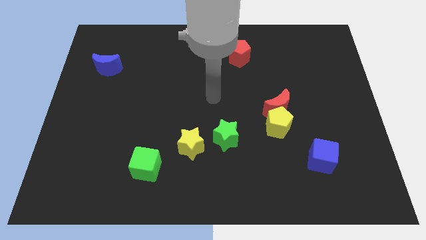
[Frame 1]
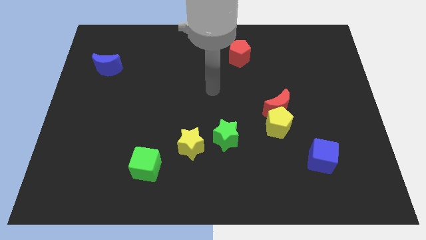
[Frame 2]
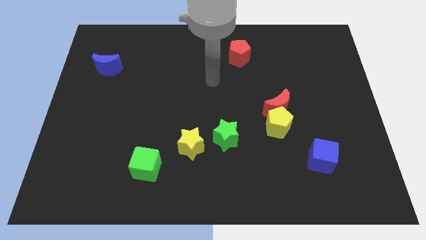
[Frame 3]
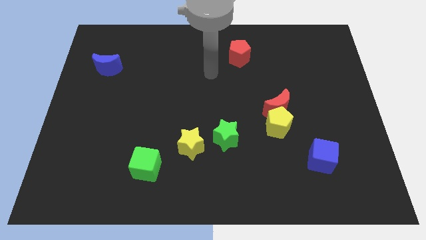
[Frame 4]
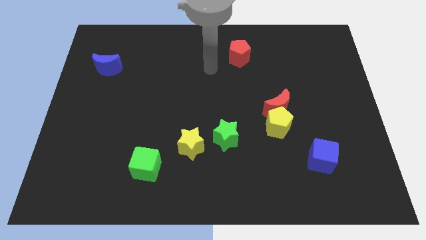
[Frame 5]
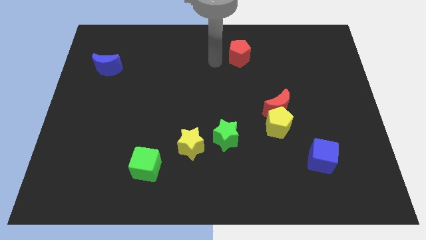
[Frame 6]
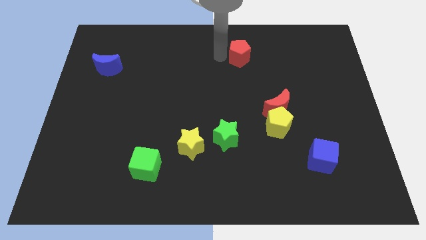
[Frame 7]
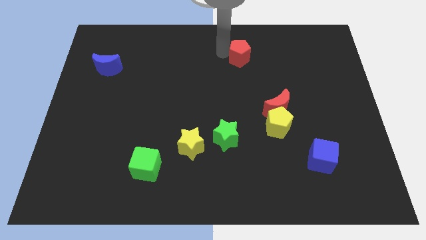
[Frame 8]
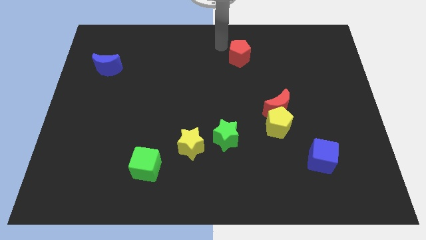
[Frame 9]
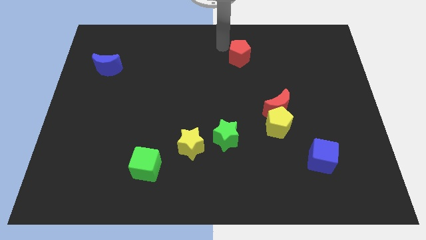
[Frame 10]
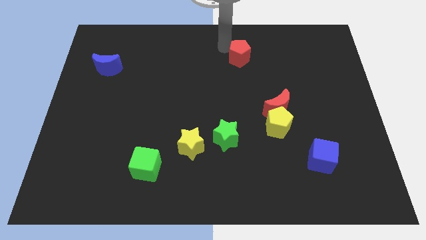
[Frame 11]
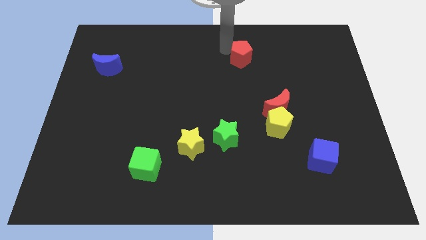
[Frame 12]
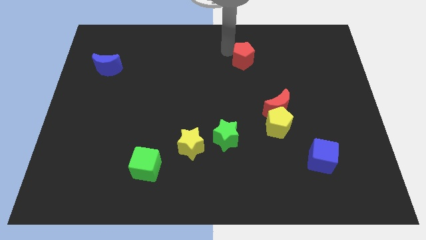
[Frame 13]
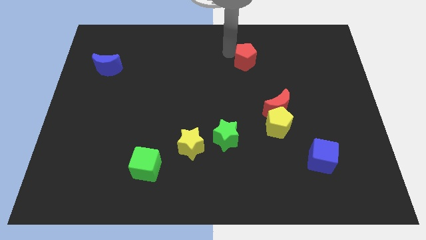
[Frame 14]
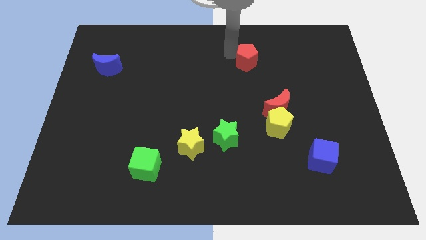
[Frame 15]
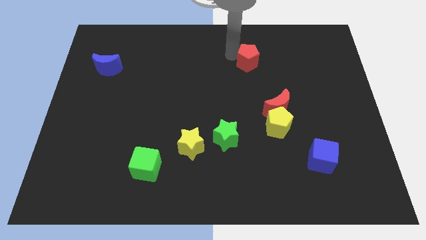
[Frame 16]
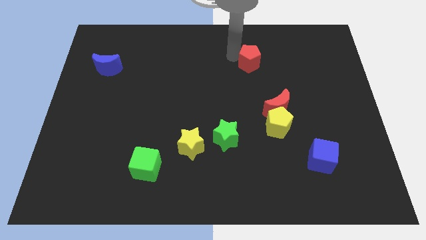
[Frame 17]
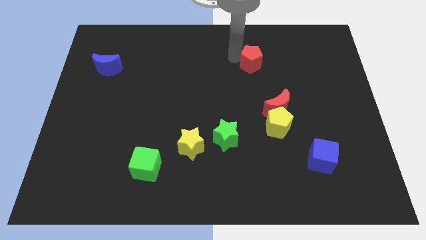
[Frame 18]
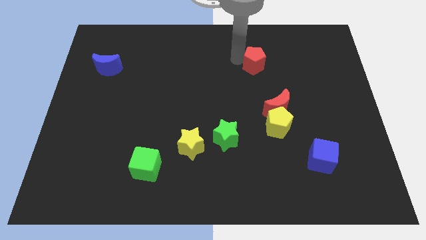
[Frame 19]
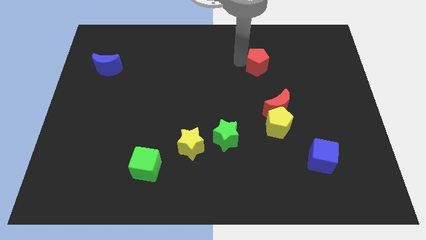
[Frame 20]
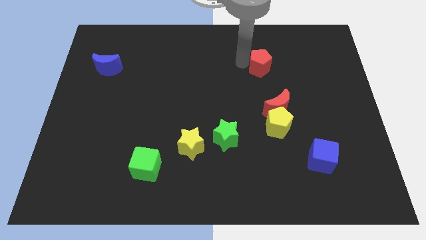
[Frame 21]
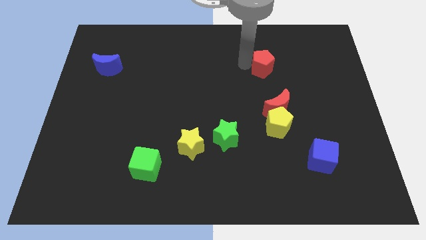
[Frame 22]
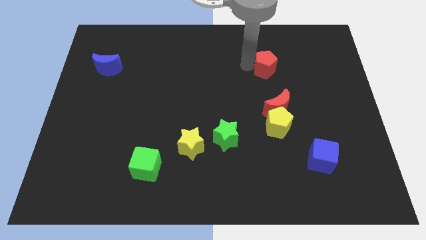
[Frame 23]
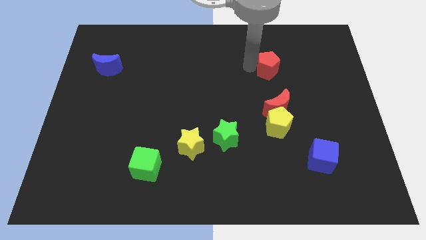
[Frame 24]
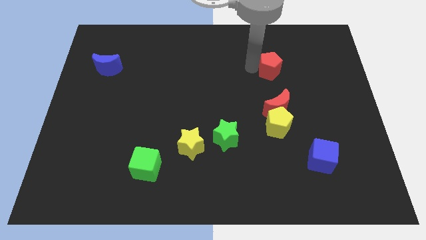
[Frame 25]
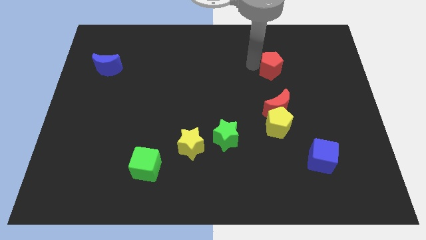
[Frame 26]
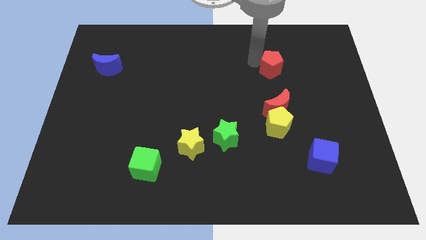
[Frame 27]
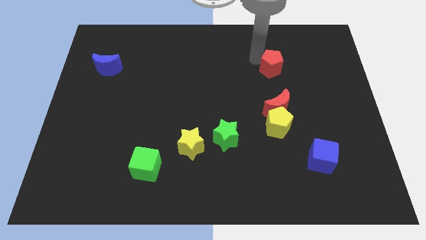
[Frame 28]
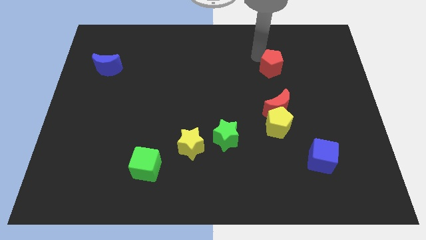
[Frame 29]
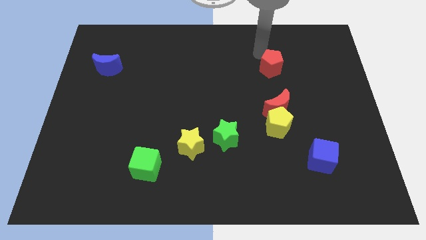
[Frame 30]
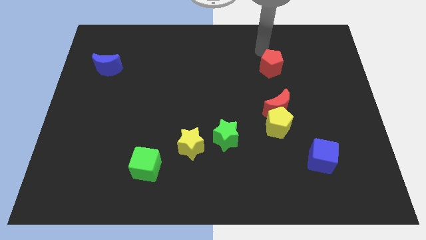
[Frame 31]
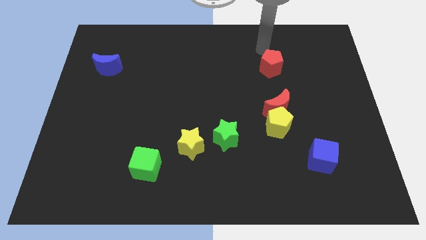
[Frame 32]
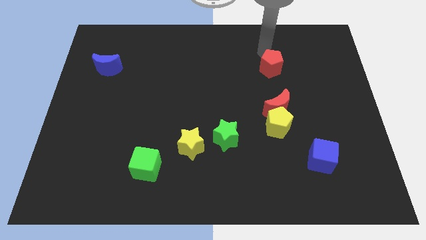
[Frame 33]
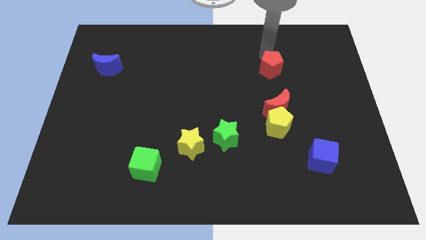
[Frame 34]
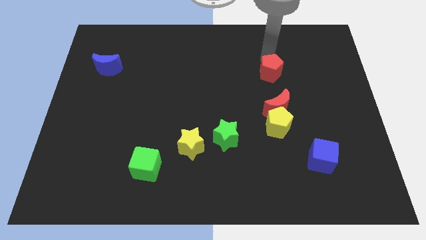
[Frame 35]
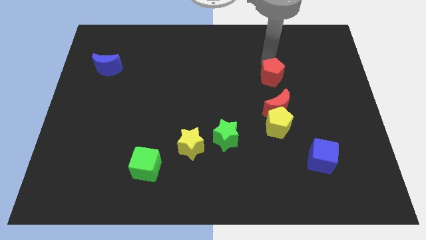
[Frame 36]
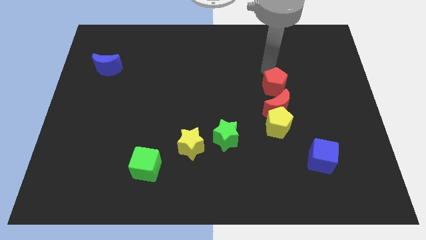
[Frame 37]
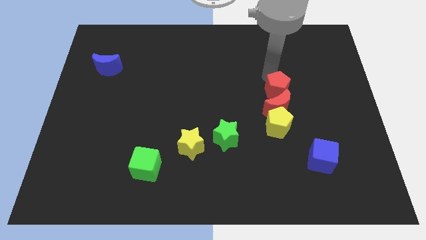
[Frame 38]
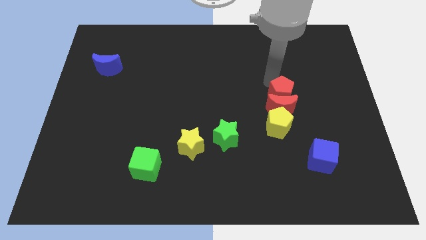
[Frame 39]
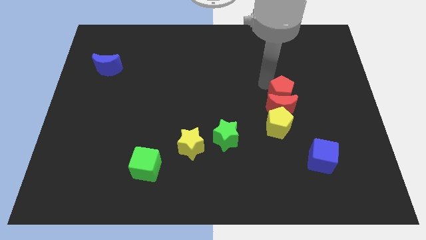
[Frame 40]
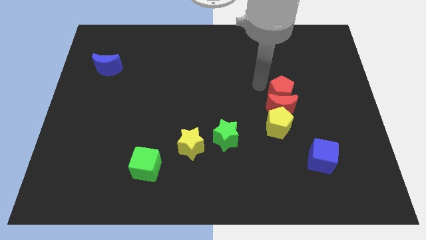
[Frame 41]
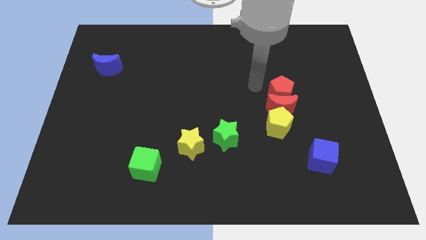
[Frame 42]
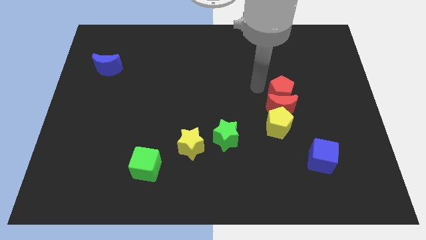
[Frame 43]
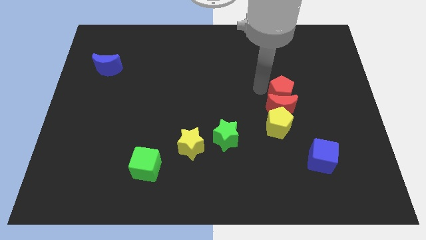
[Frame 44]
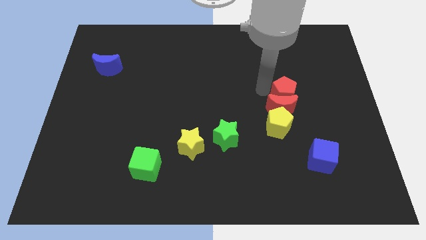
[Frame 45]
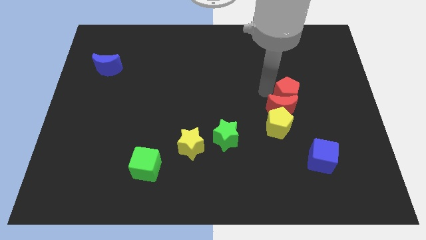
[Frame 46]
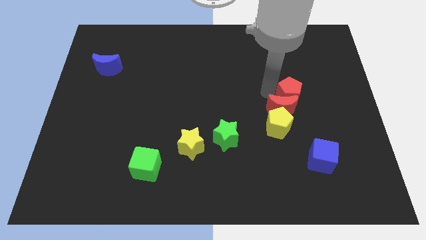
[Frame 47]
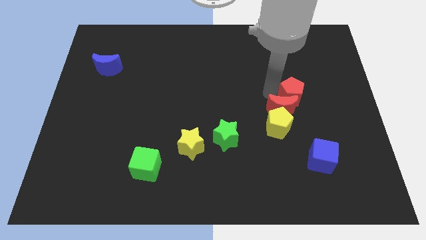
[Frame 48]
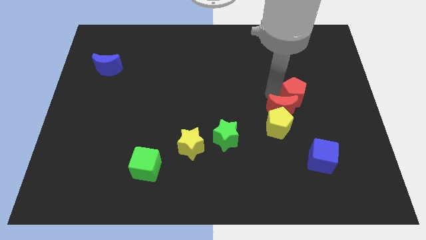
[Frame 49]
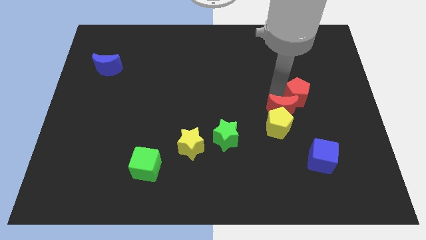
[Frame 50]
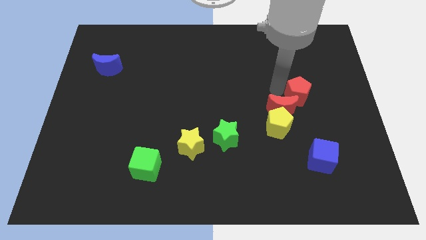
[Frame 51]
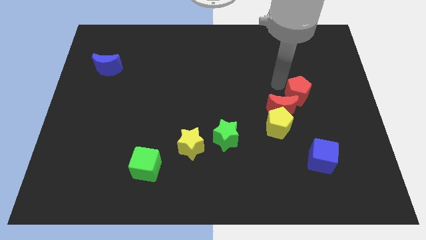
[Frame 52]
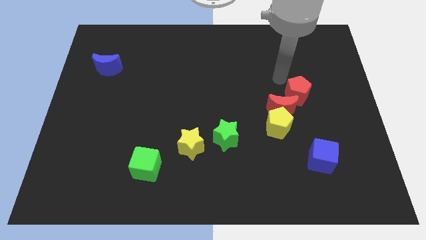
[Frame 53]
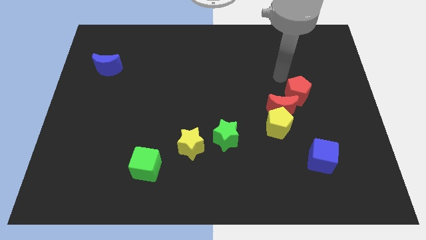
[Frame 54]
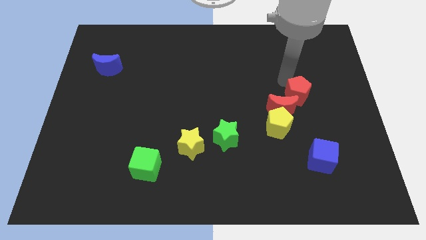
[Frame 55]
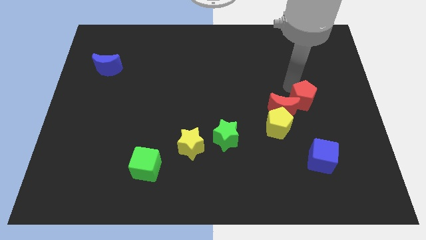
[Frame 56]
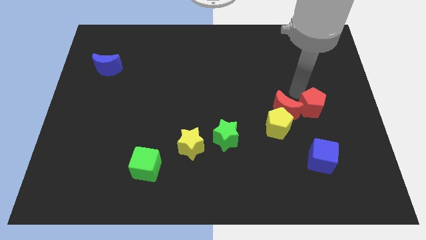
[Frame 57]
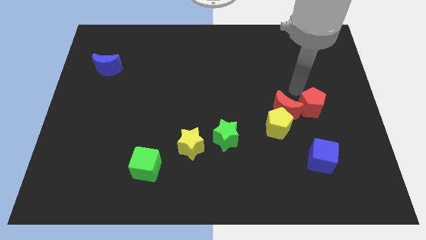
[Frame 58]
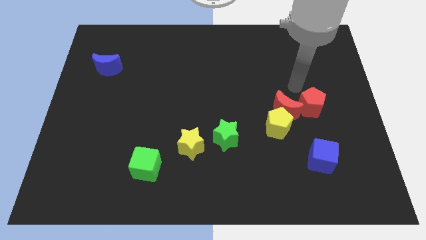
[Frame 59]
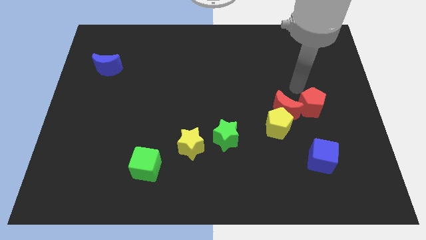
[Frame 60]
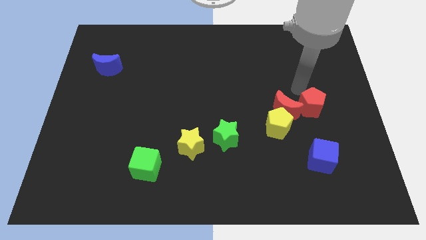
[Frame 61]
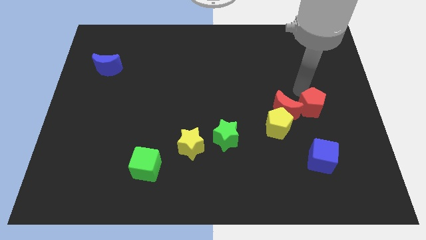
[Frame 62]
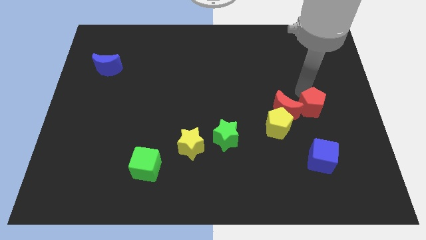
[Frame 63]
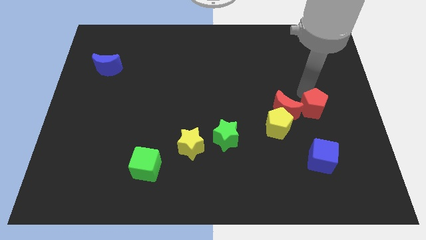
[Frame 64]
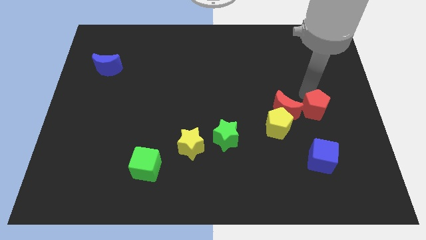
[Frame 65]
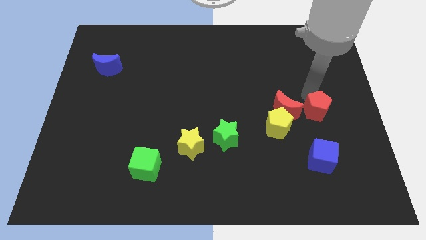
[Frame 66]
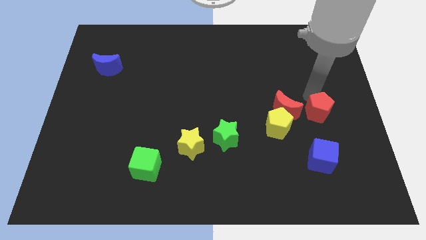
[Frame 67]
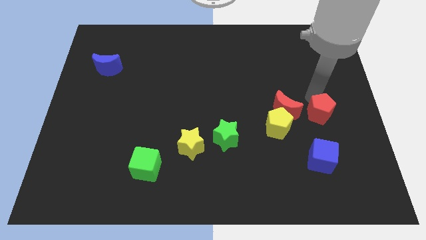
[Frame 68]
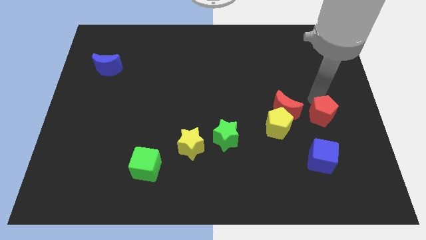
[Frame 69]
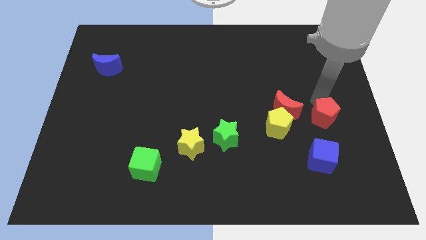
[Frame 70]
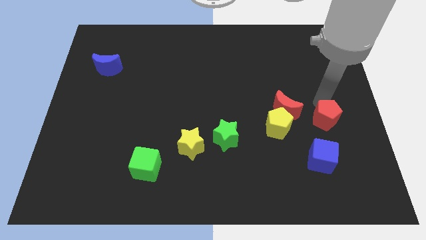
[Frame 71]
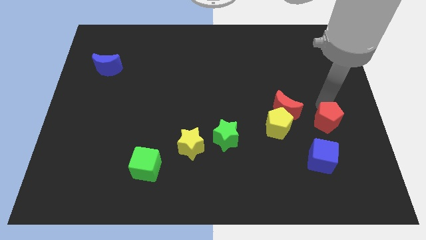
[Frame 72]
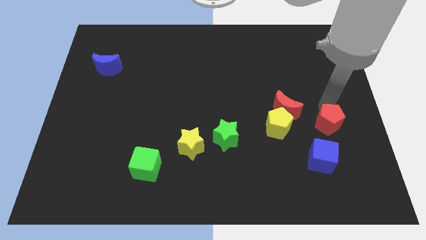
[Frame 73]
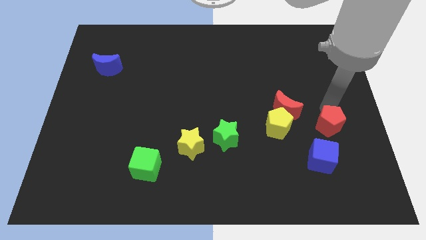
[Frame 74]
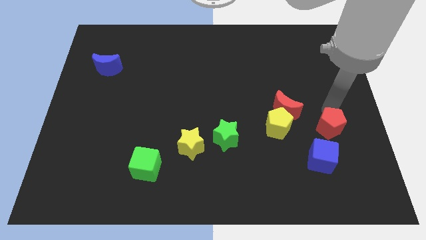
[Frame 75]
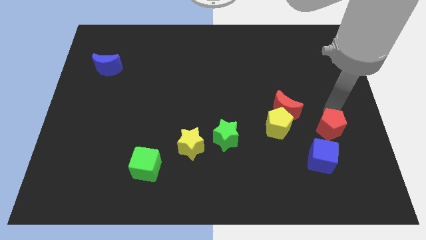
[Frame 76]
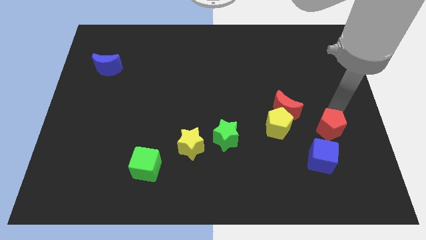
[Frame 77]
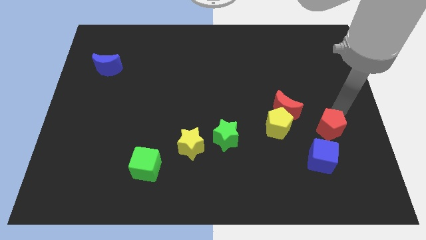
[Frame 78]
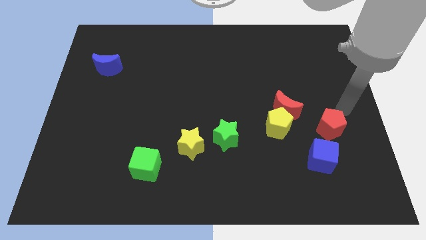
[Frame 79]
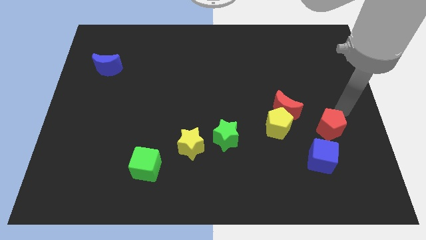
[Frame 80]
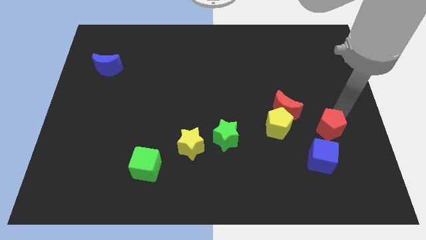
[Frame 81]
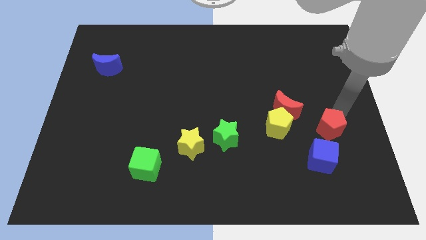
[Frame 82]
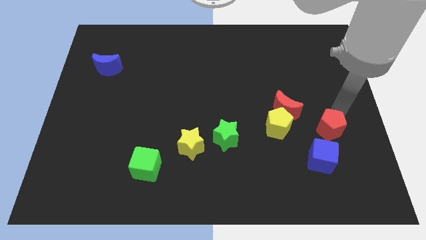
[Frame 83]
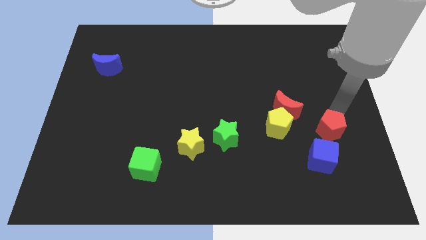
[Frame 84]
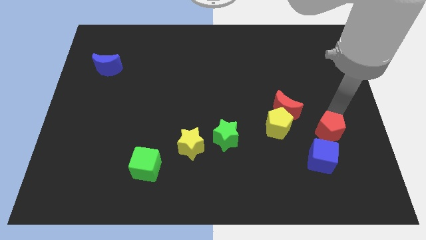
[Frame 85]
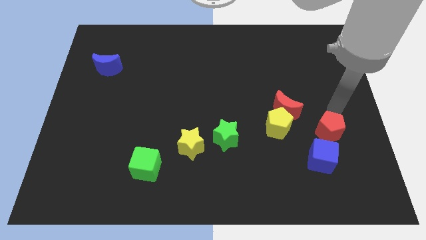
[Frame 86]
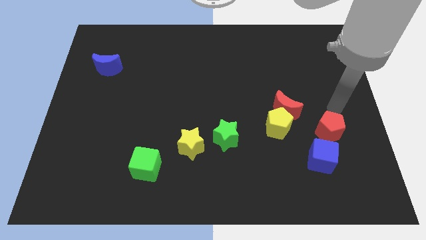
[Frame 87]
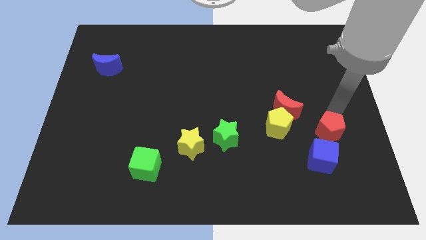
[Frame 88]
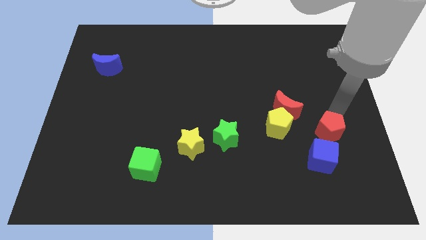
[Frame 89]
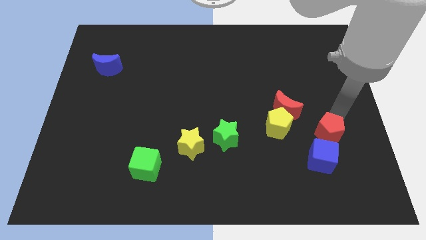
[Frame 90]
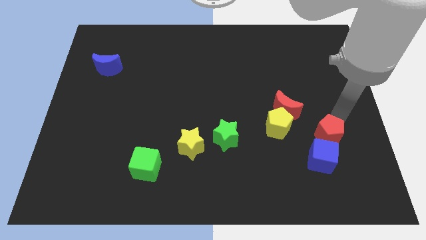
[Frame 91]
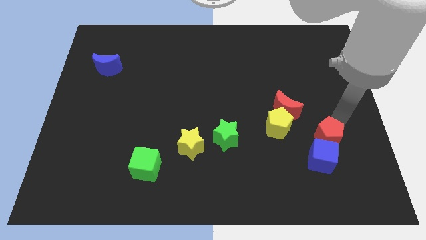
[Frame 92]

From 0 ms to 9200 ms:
put the red pentagon to the blue cube
